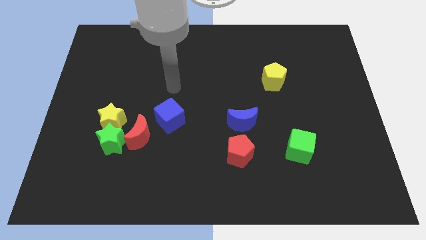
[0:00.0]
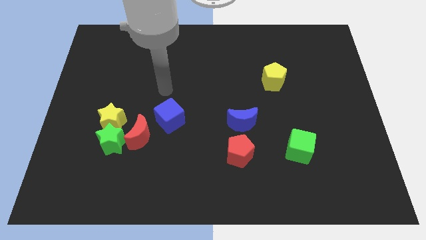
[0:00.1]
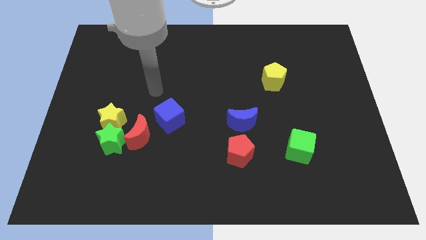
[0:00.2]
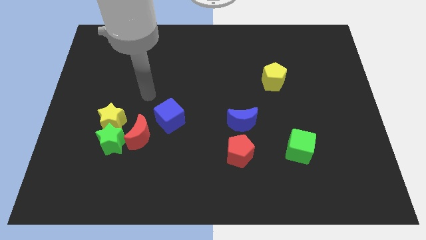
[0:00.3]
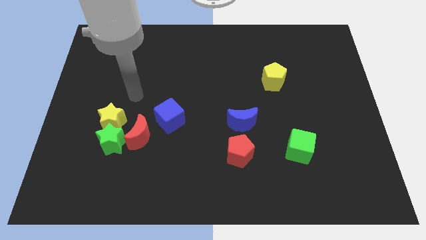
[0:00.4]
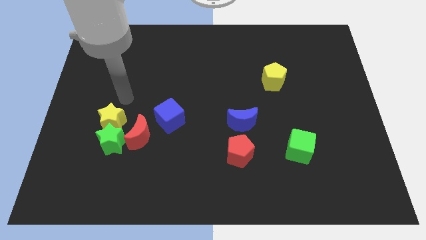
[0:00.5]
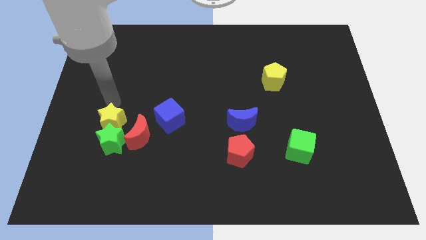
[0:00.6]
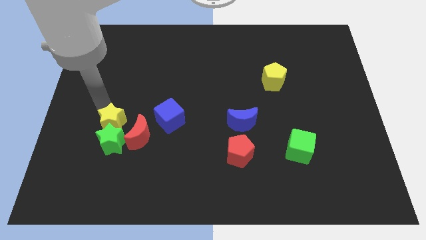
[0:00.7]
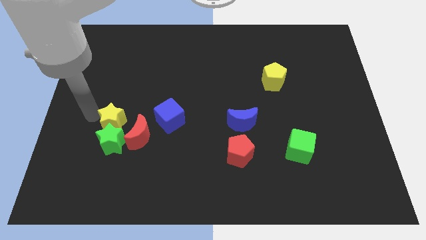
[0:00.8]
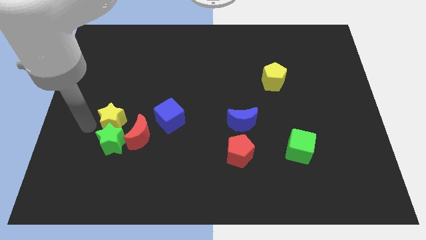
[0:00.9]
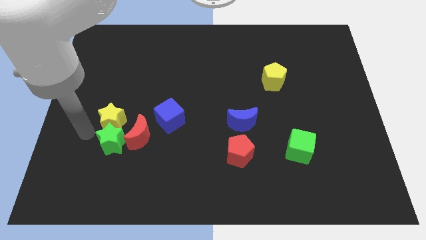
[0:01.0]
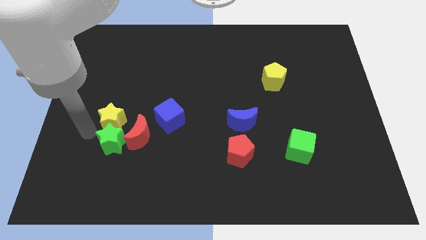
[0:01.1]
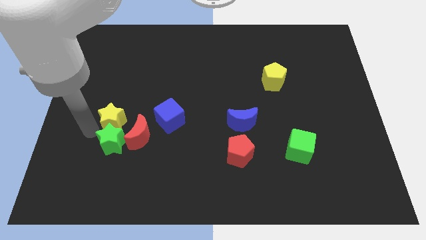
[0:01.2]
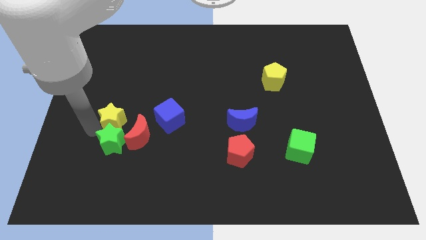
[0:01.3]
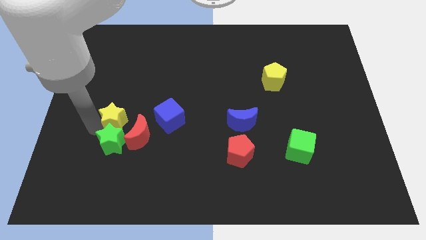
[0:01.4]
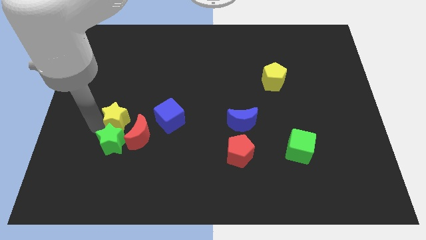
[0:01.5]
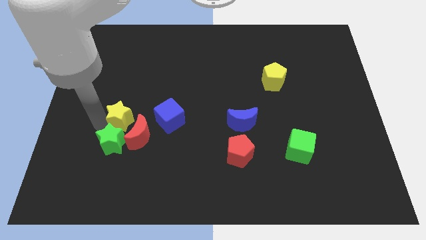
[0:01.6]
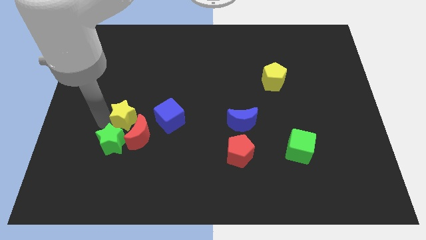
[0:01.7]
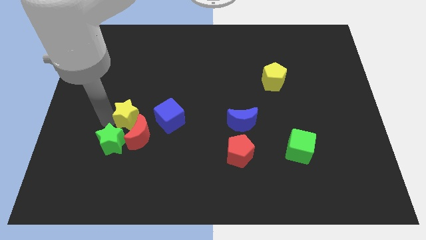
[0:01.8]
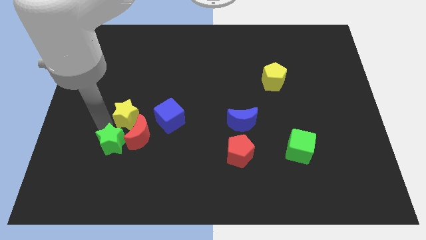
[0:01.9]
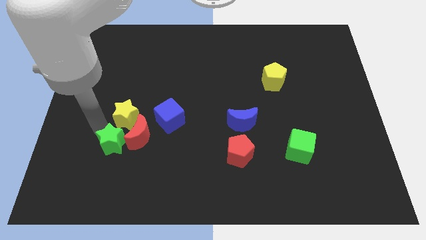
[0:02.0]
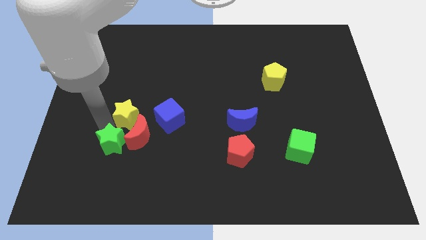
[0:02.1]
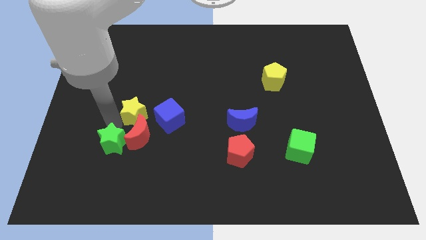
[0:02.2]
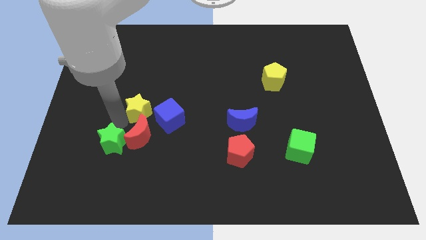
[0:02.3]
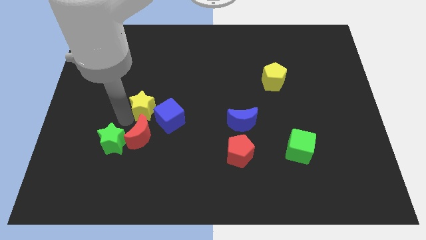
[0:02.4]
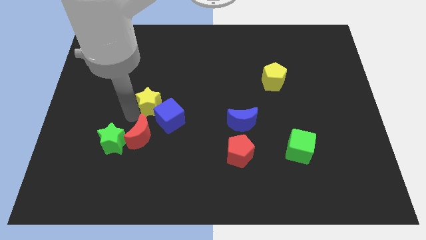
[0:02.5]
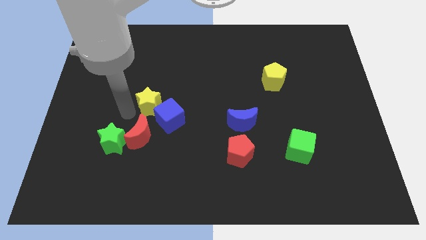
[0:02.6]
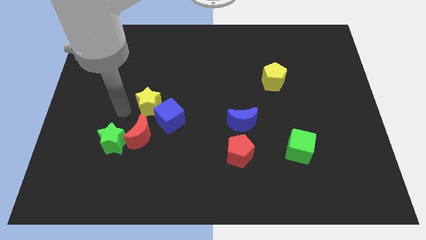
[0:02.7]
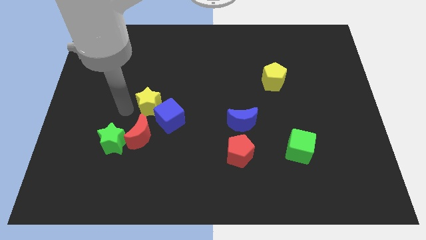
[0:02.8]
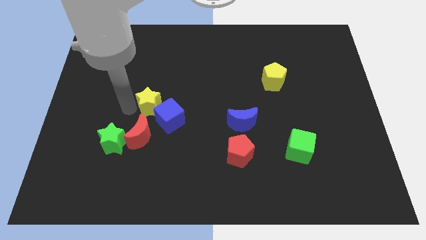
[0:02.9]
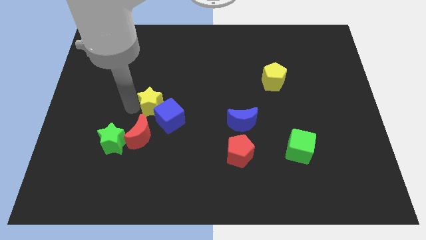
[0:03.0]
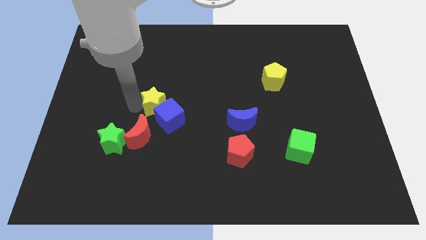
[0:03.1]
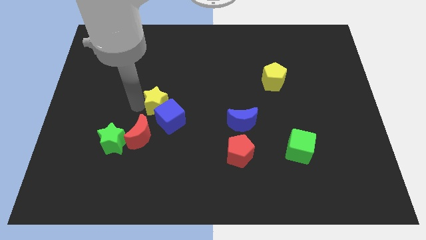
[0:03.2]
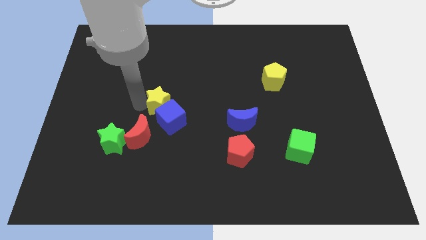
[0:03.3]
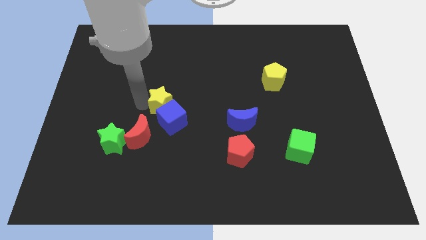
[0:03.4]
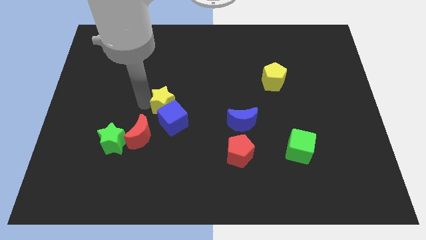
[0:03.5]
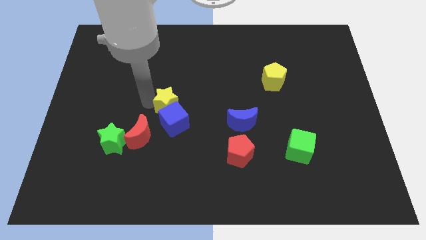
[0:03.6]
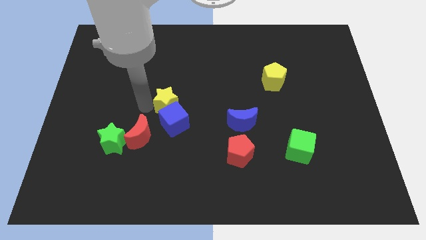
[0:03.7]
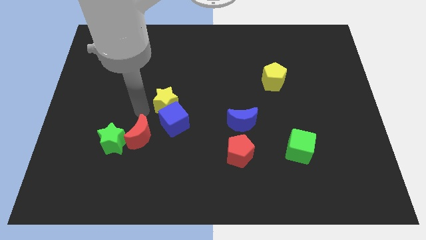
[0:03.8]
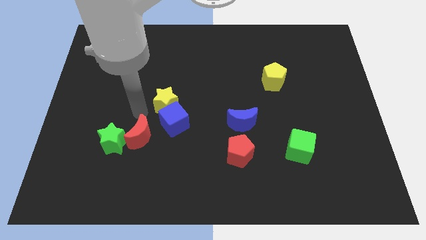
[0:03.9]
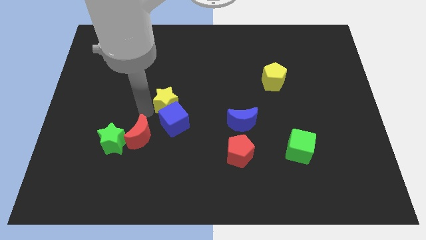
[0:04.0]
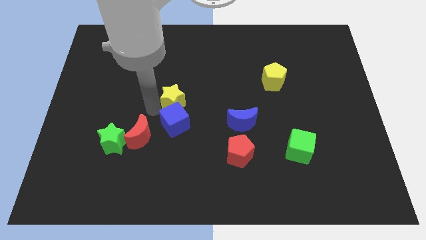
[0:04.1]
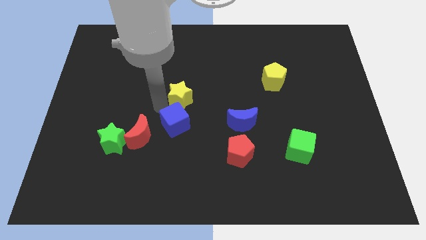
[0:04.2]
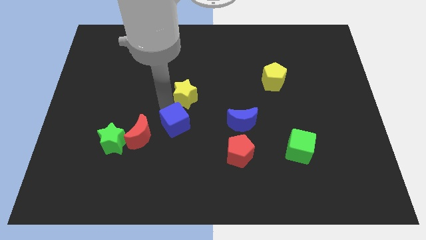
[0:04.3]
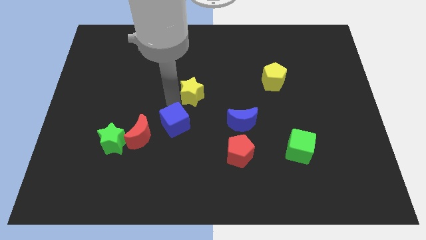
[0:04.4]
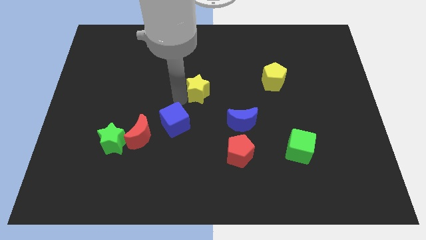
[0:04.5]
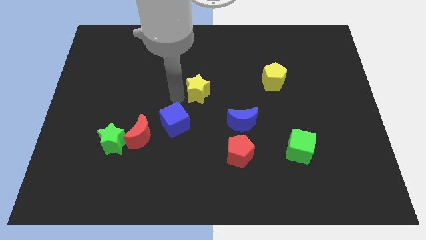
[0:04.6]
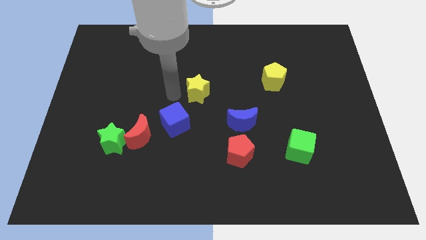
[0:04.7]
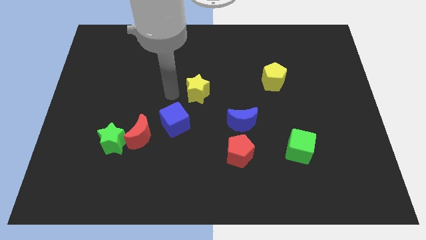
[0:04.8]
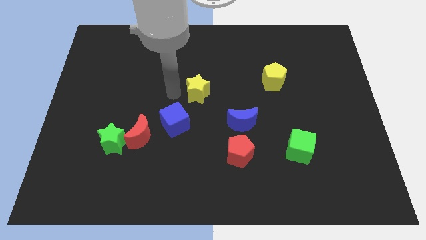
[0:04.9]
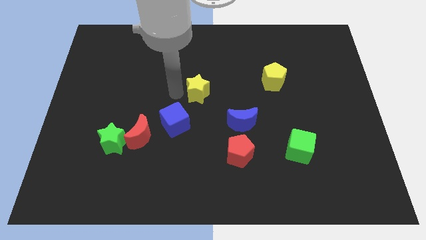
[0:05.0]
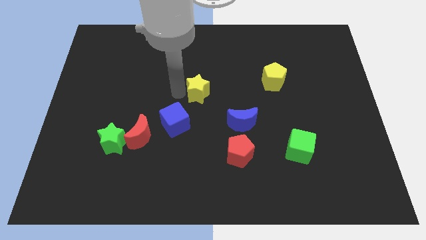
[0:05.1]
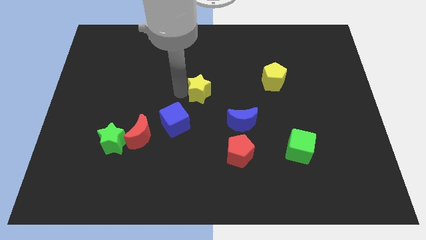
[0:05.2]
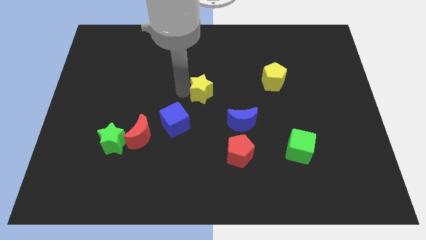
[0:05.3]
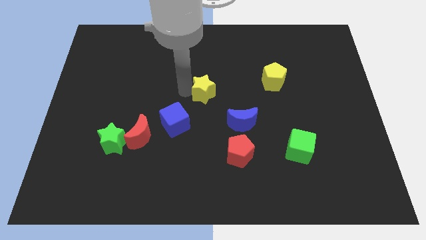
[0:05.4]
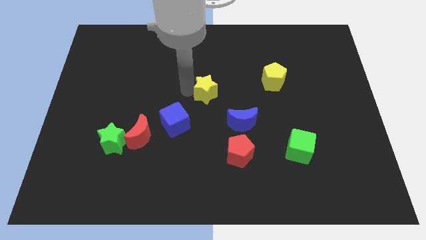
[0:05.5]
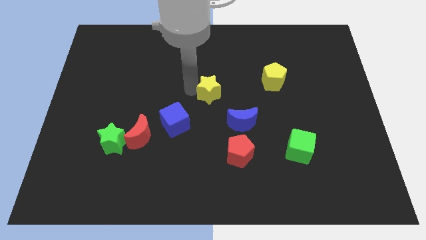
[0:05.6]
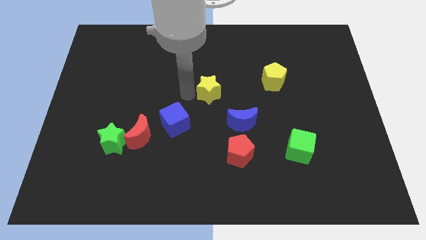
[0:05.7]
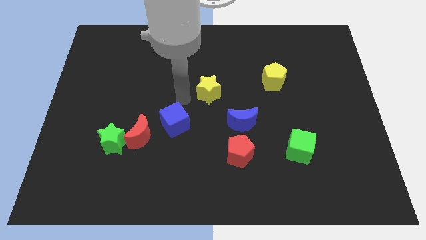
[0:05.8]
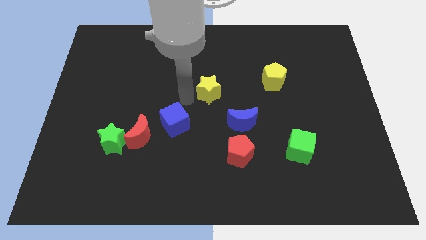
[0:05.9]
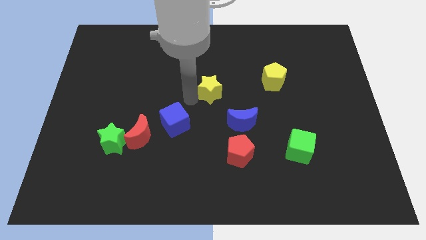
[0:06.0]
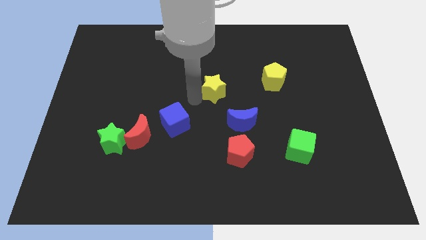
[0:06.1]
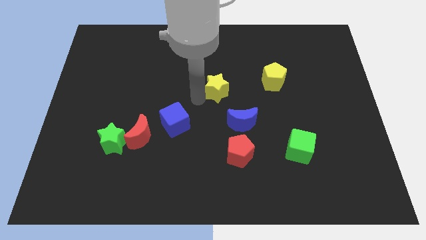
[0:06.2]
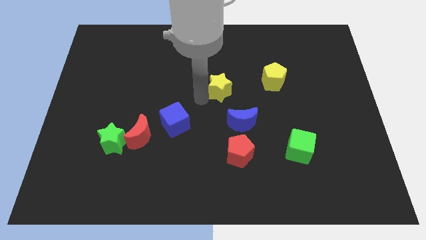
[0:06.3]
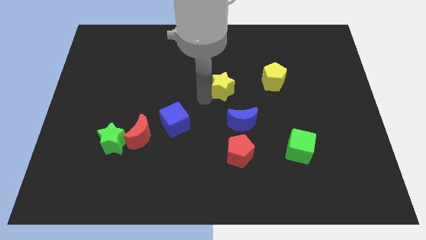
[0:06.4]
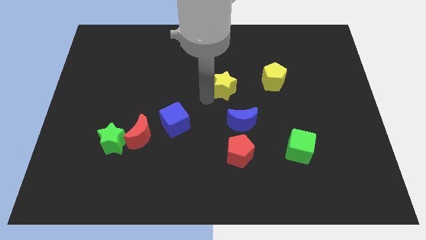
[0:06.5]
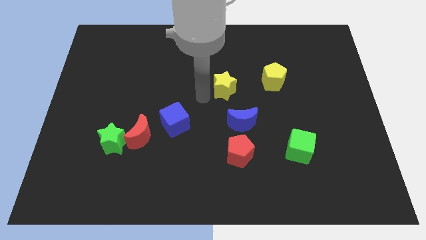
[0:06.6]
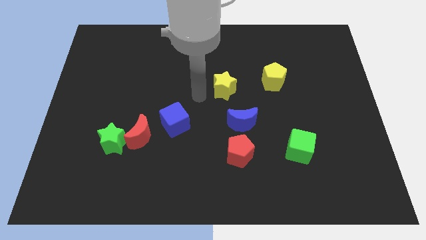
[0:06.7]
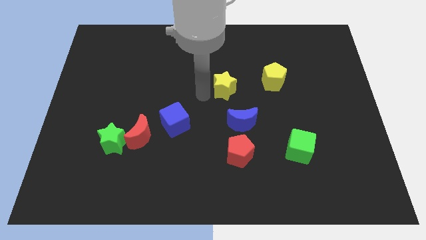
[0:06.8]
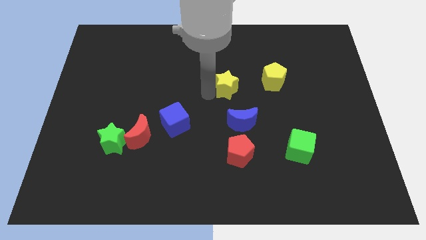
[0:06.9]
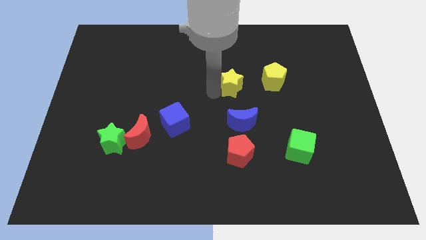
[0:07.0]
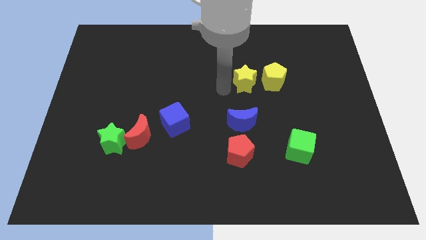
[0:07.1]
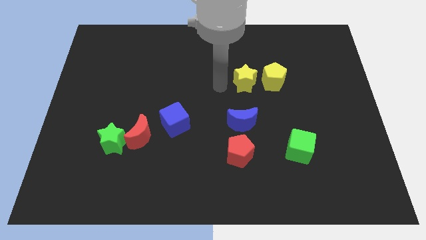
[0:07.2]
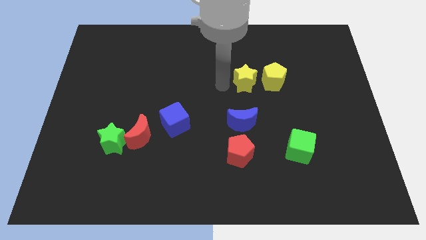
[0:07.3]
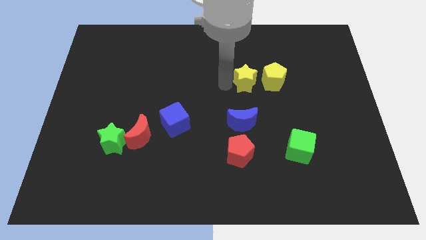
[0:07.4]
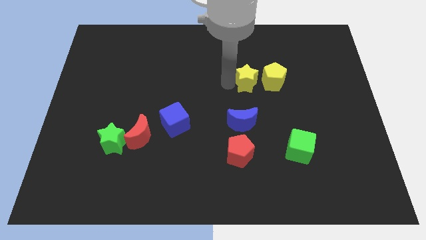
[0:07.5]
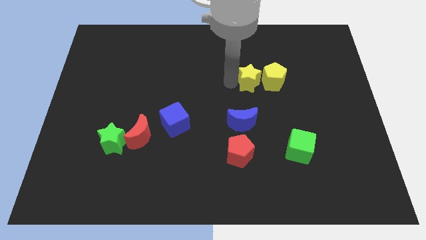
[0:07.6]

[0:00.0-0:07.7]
move the yellow star close to the yellow pentagon
